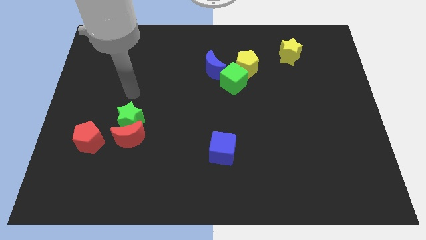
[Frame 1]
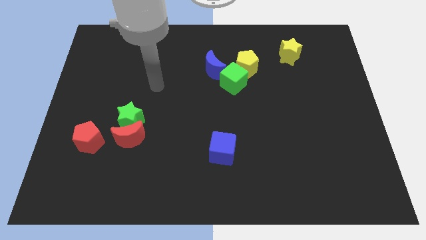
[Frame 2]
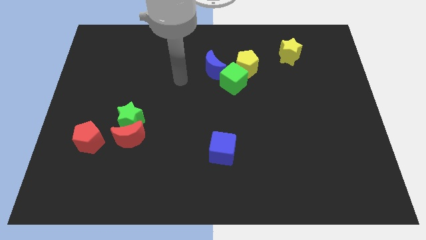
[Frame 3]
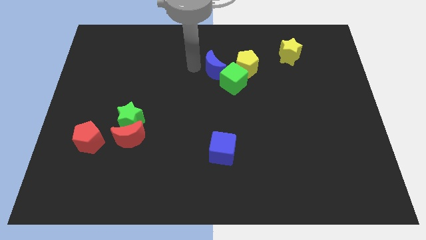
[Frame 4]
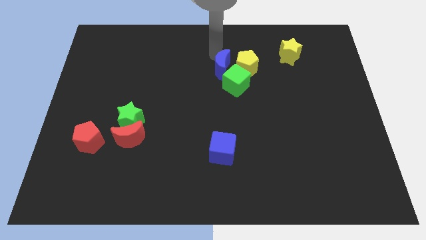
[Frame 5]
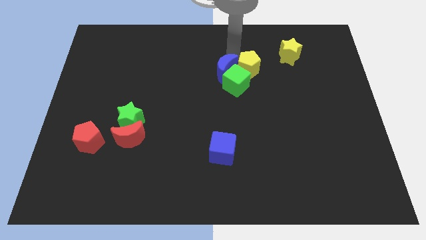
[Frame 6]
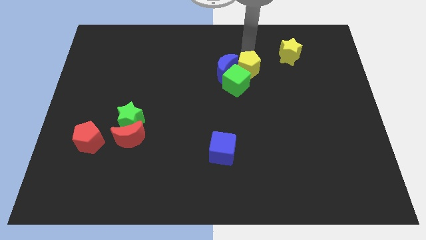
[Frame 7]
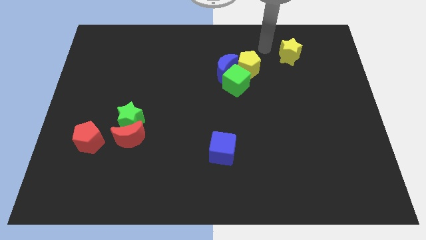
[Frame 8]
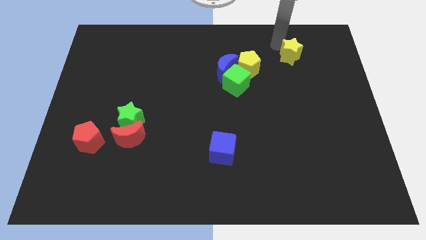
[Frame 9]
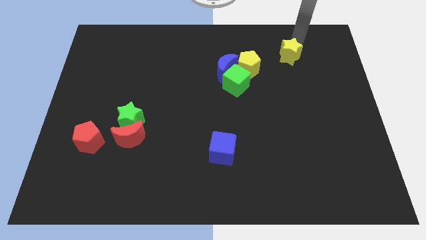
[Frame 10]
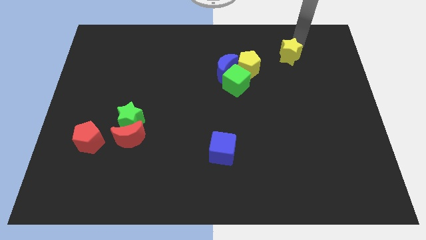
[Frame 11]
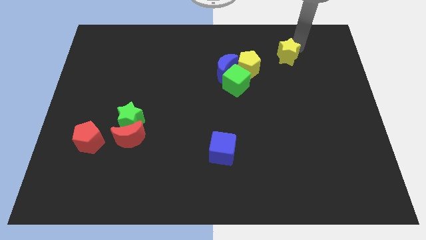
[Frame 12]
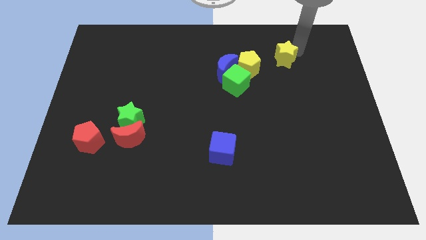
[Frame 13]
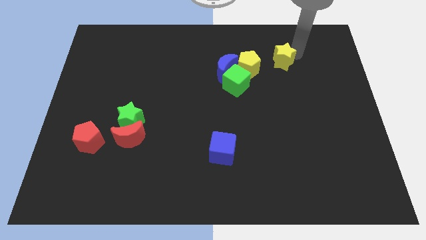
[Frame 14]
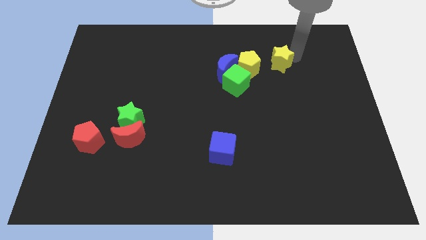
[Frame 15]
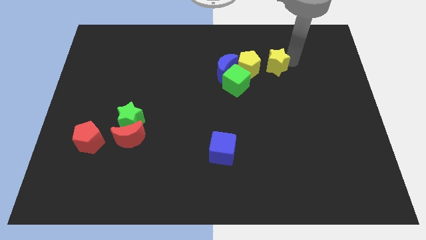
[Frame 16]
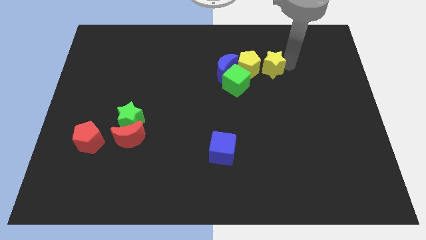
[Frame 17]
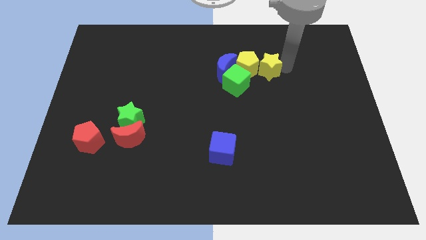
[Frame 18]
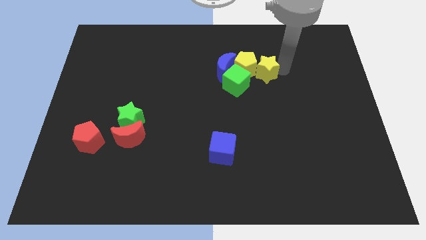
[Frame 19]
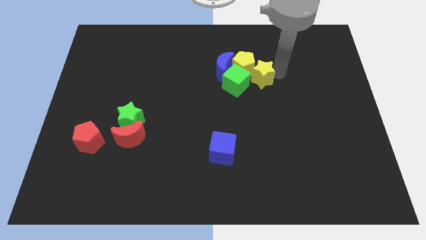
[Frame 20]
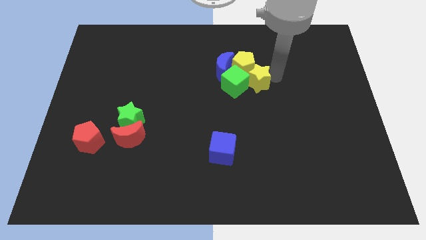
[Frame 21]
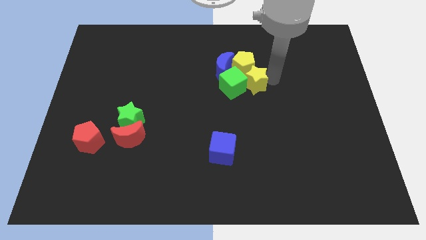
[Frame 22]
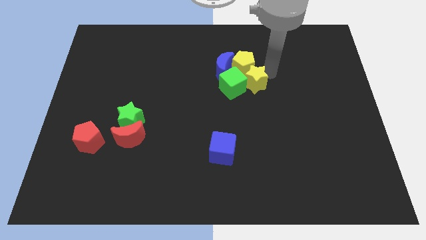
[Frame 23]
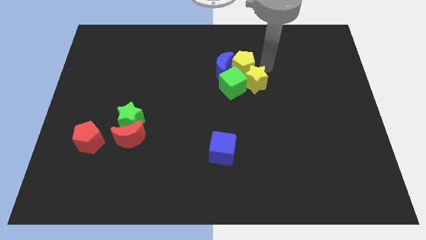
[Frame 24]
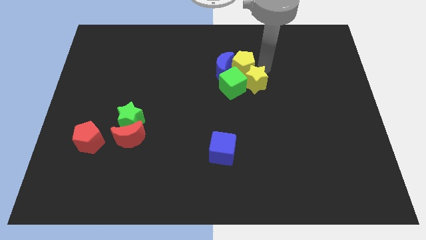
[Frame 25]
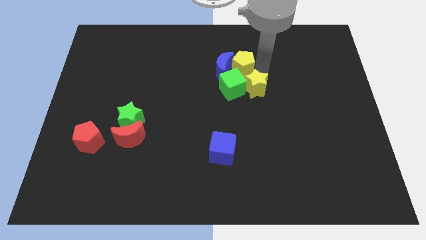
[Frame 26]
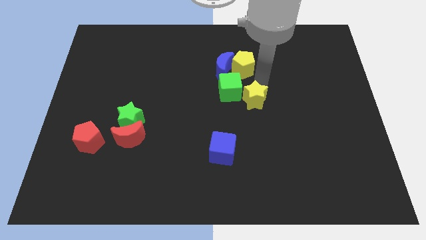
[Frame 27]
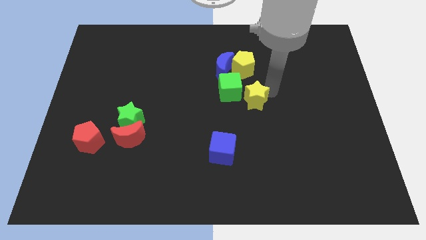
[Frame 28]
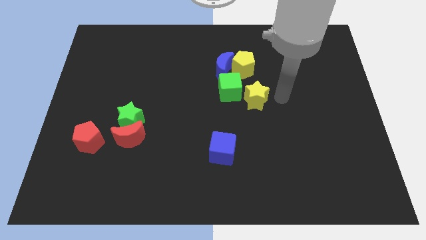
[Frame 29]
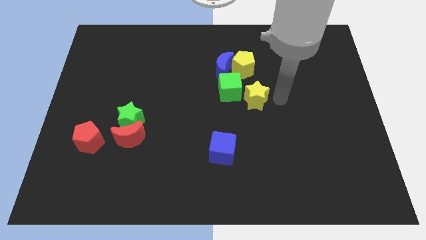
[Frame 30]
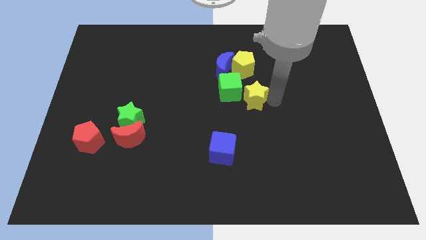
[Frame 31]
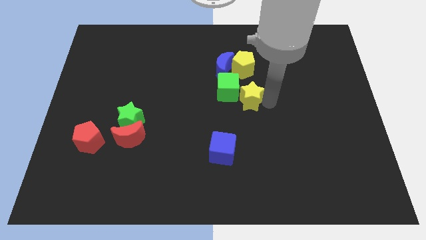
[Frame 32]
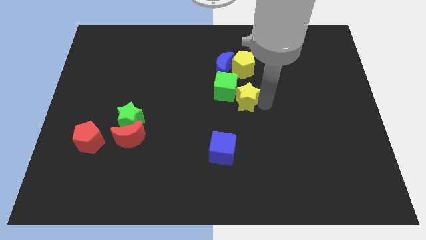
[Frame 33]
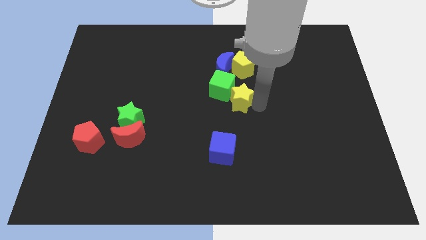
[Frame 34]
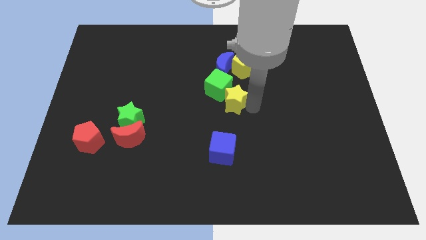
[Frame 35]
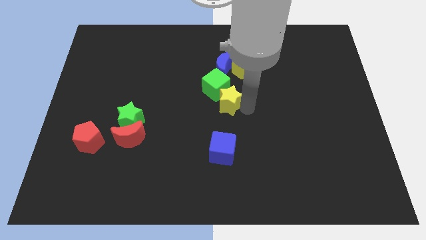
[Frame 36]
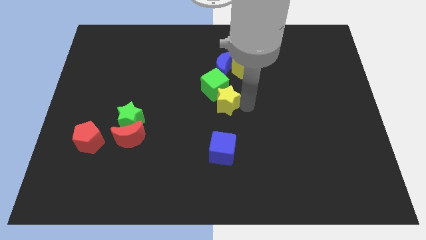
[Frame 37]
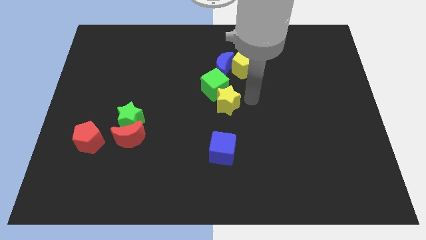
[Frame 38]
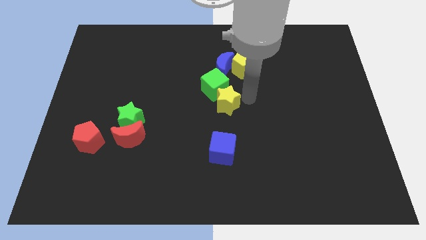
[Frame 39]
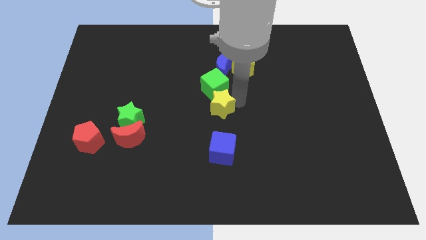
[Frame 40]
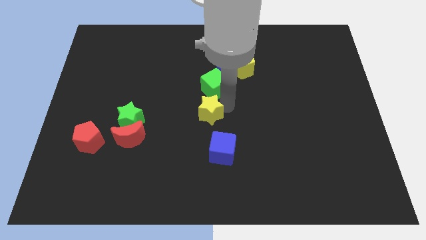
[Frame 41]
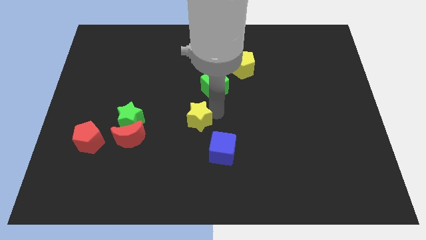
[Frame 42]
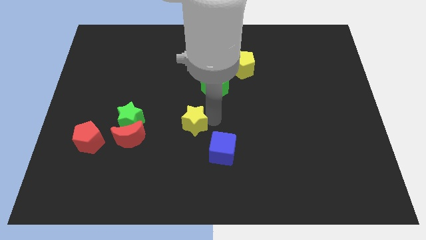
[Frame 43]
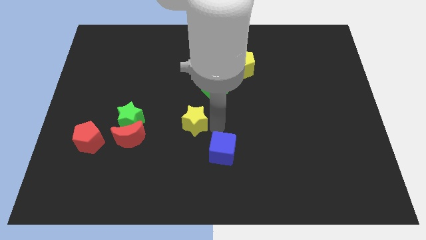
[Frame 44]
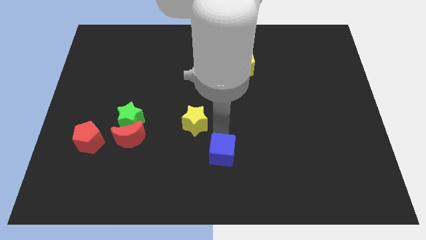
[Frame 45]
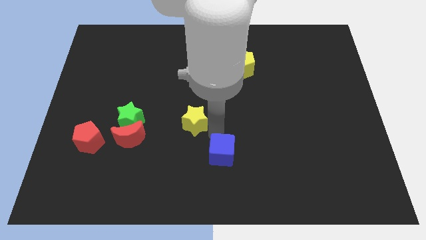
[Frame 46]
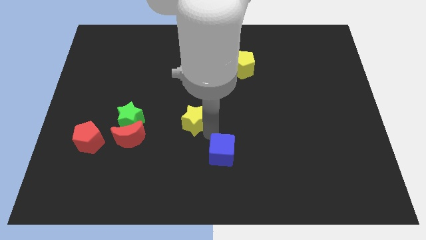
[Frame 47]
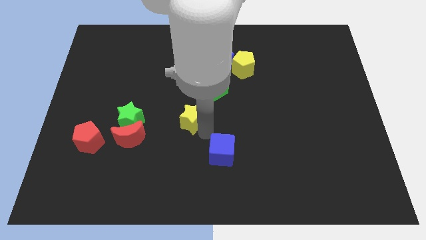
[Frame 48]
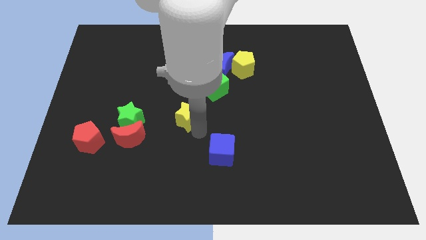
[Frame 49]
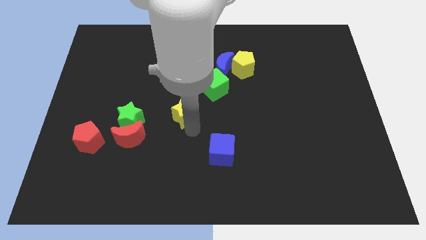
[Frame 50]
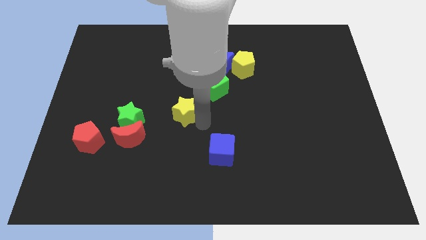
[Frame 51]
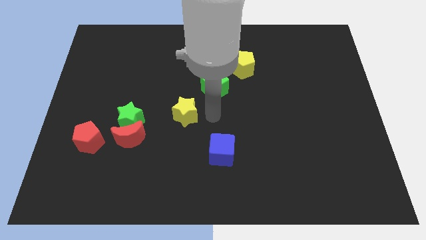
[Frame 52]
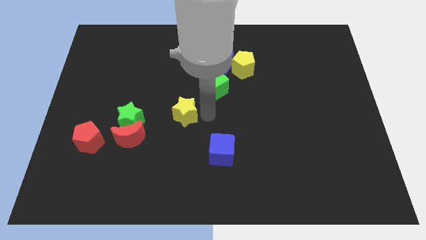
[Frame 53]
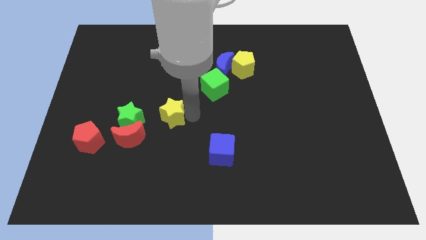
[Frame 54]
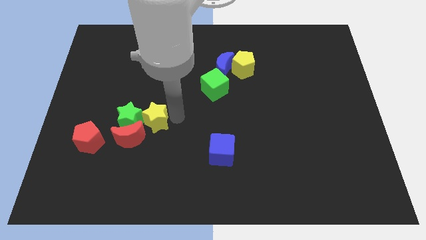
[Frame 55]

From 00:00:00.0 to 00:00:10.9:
move the yellow star to the green star

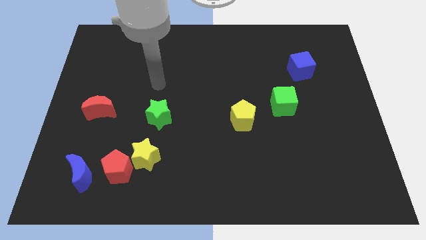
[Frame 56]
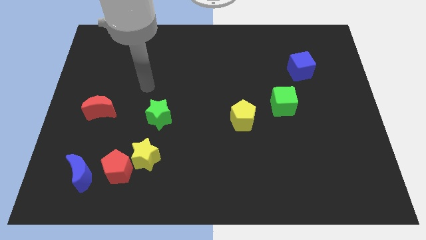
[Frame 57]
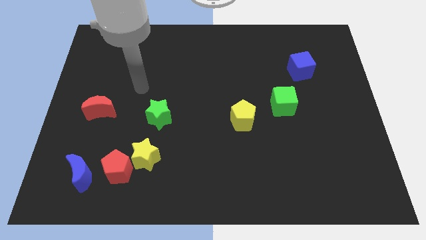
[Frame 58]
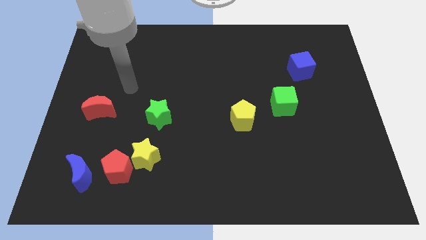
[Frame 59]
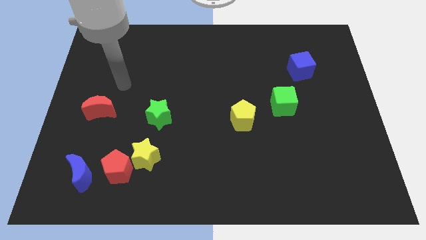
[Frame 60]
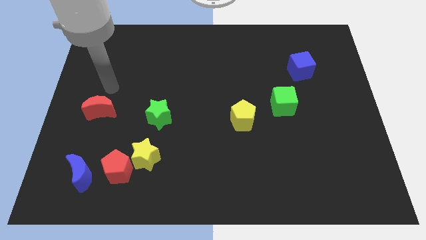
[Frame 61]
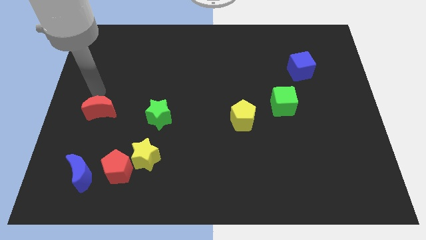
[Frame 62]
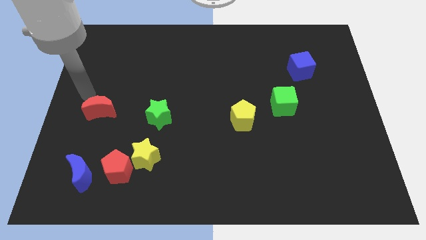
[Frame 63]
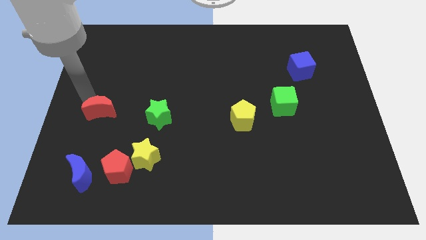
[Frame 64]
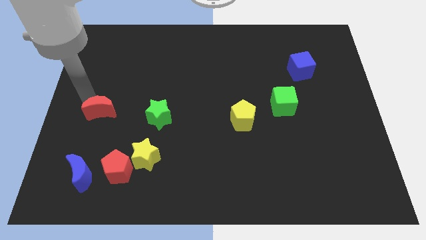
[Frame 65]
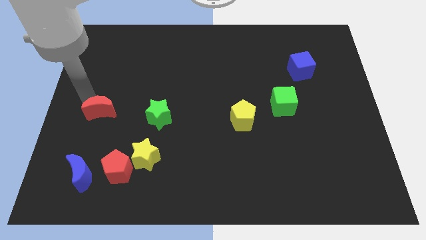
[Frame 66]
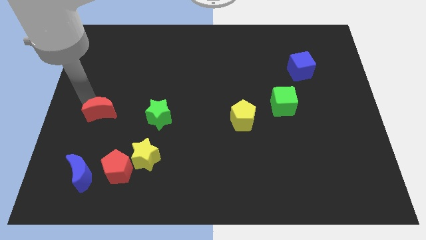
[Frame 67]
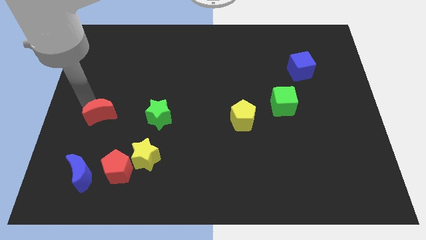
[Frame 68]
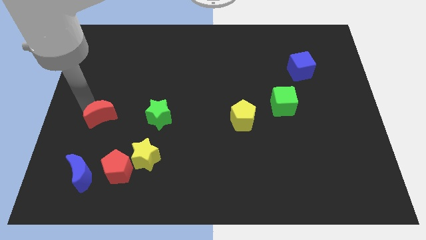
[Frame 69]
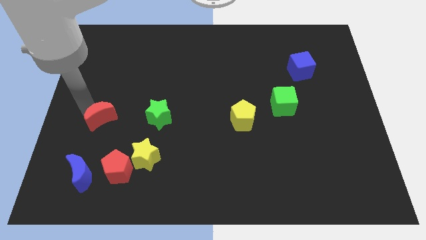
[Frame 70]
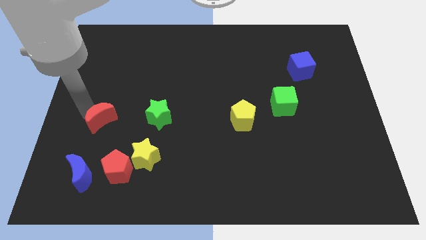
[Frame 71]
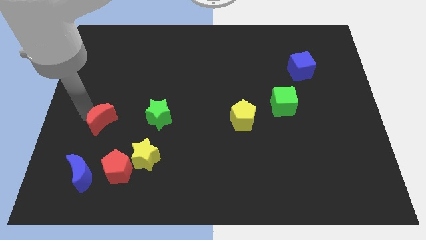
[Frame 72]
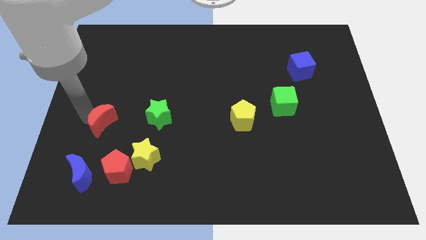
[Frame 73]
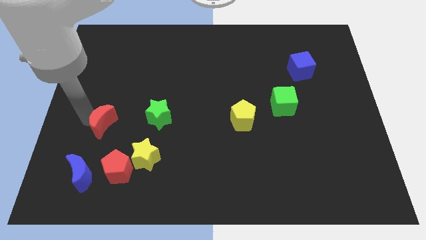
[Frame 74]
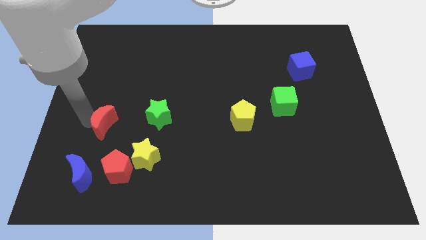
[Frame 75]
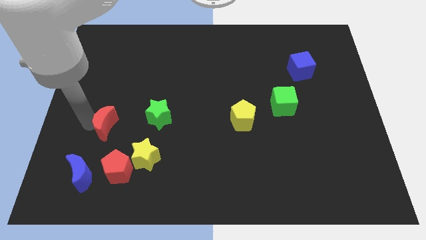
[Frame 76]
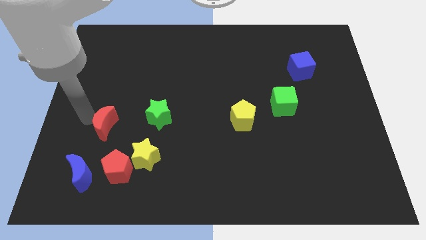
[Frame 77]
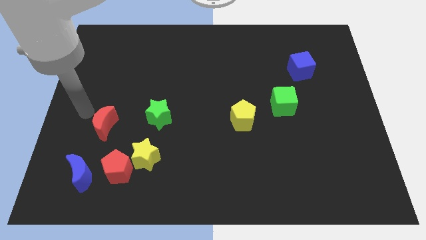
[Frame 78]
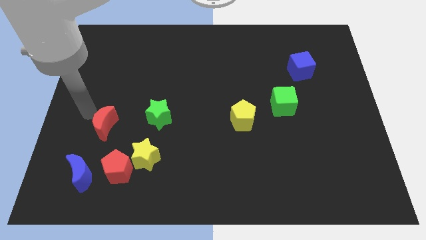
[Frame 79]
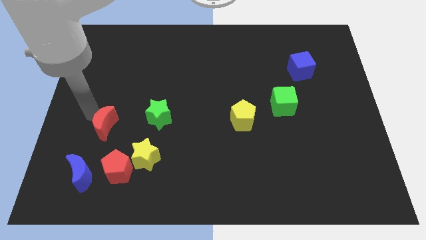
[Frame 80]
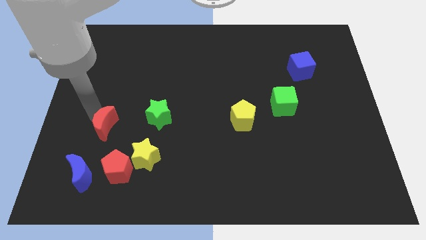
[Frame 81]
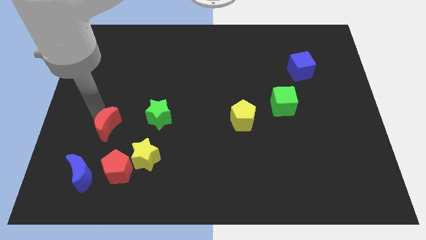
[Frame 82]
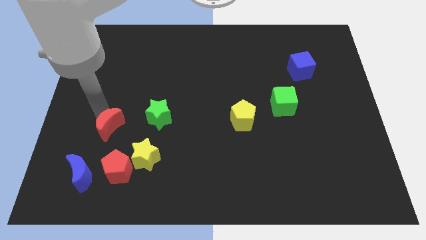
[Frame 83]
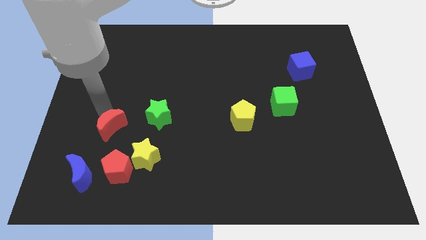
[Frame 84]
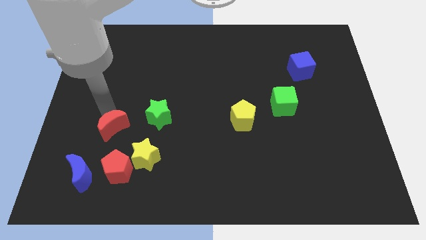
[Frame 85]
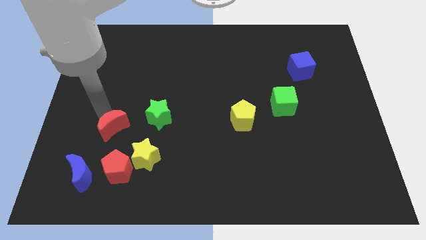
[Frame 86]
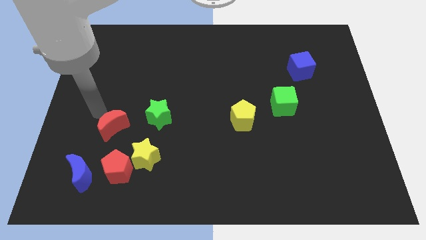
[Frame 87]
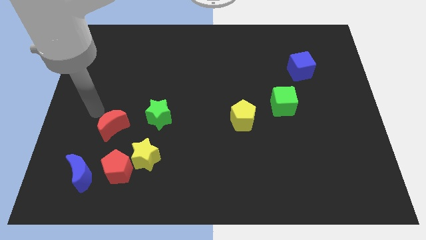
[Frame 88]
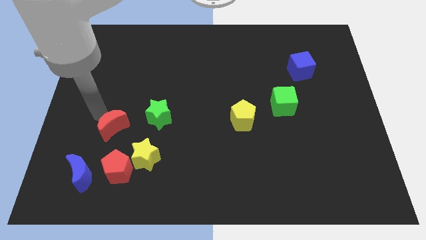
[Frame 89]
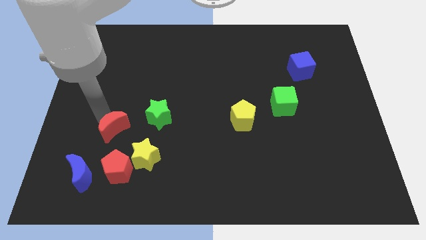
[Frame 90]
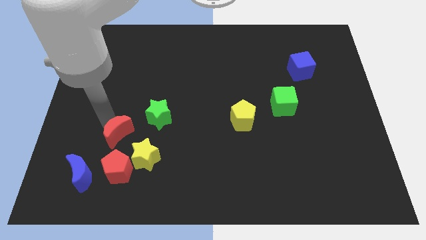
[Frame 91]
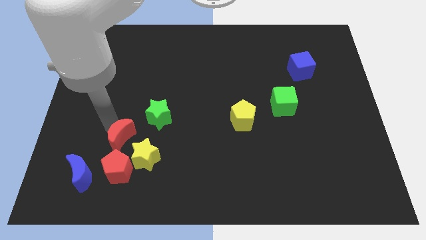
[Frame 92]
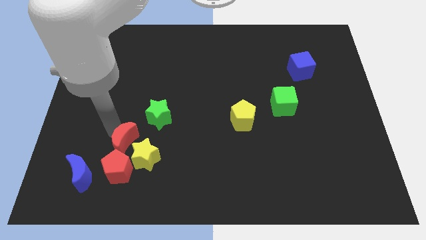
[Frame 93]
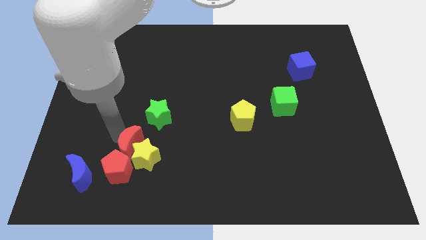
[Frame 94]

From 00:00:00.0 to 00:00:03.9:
put the red moon close to the yellow star
